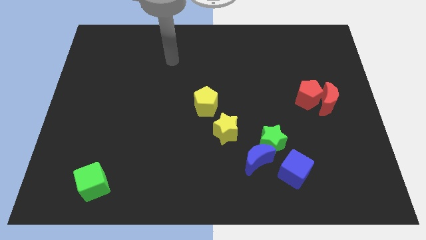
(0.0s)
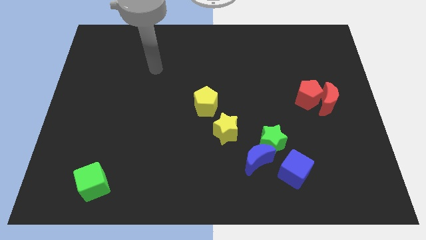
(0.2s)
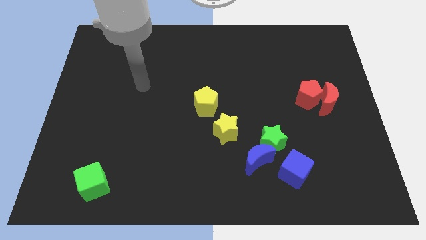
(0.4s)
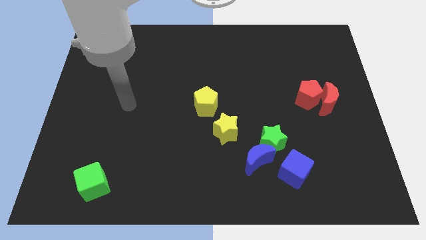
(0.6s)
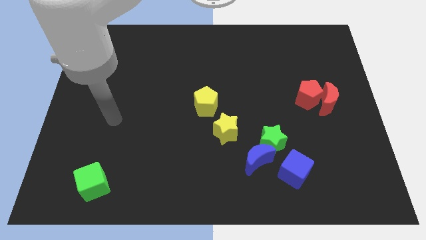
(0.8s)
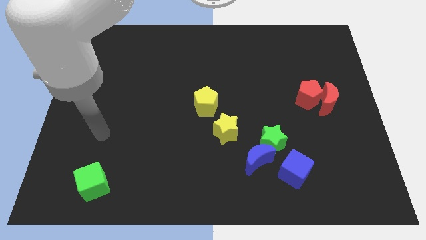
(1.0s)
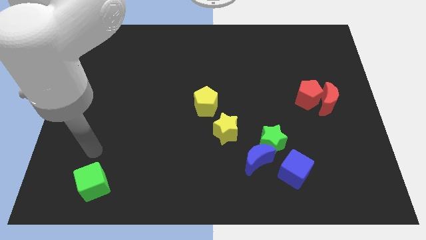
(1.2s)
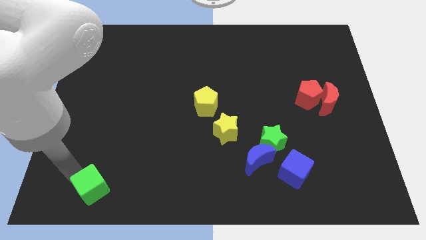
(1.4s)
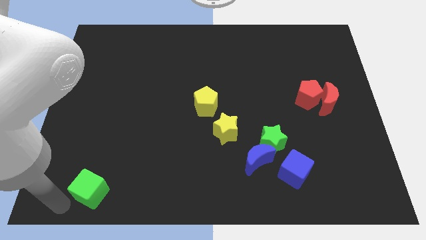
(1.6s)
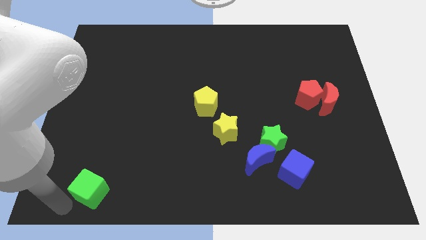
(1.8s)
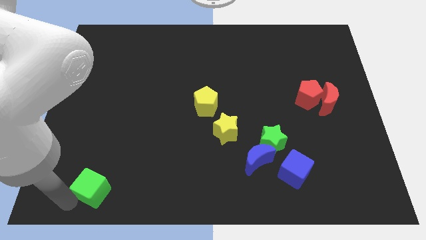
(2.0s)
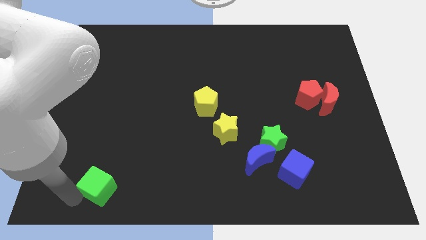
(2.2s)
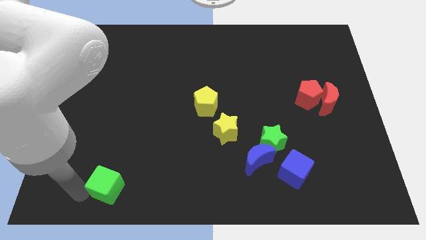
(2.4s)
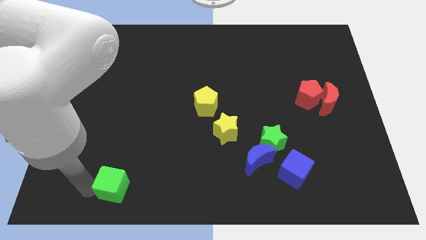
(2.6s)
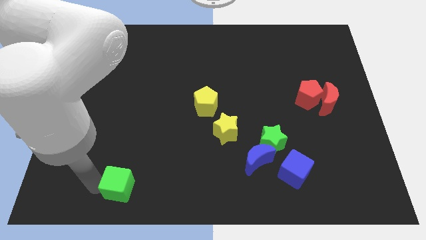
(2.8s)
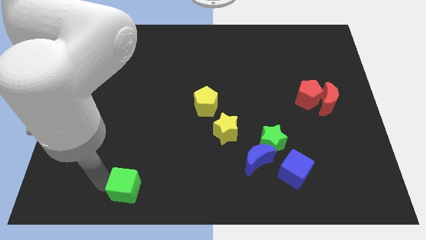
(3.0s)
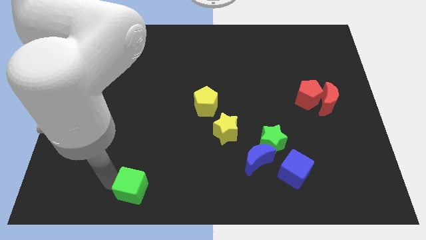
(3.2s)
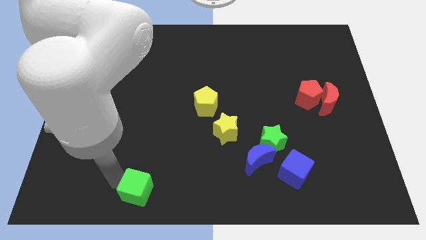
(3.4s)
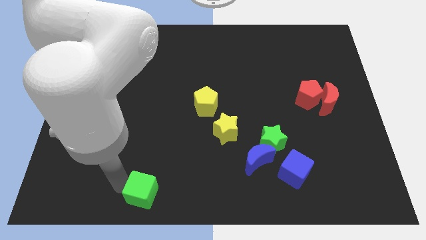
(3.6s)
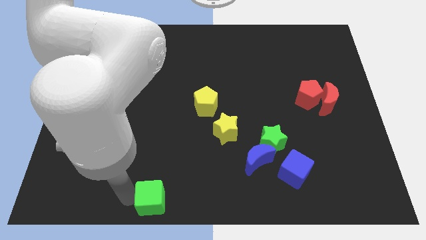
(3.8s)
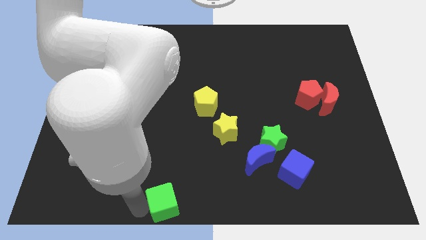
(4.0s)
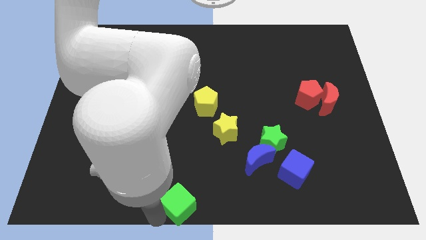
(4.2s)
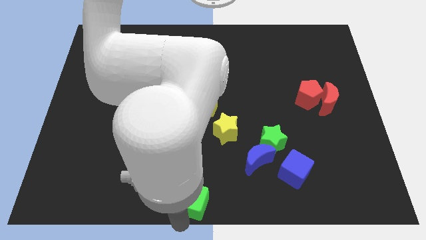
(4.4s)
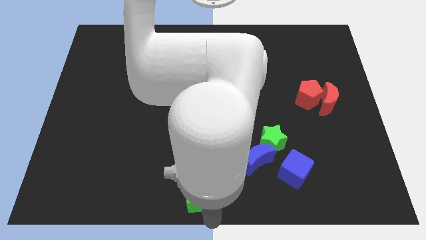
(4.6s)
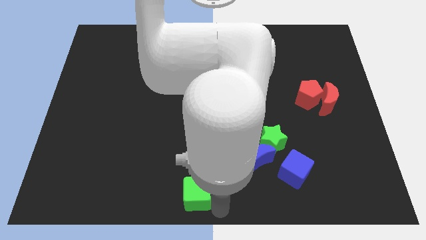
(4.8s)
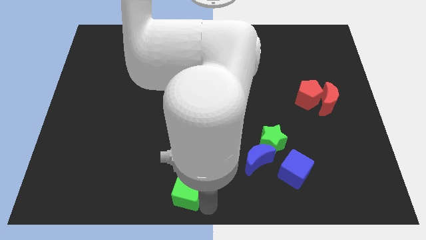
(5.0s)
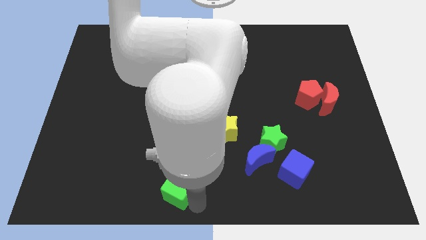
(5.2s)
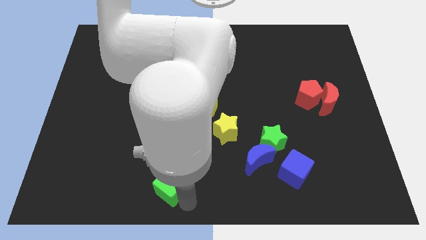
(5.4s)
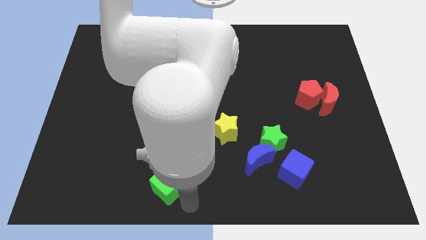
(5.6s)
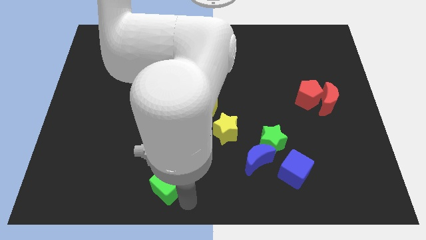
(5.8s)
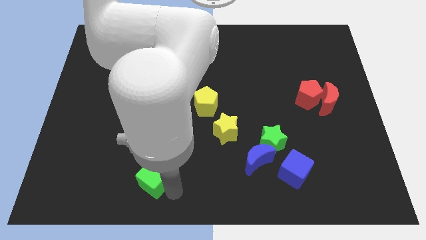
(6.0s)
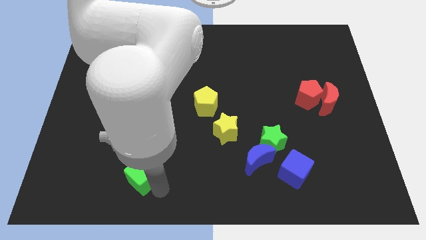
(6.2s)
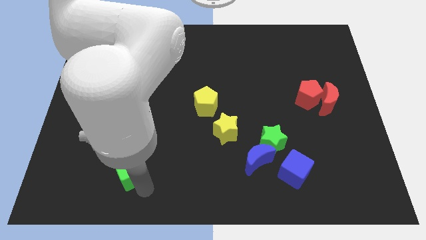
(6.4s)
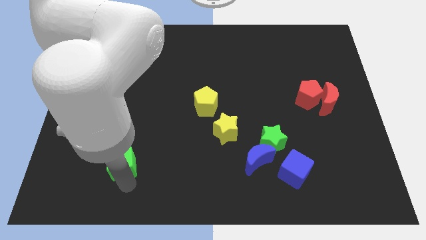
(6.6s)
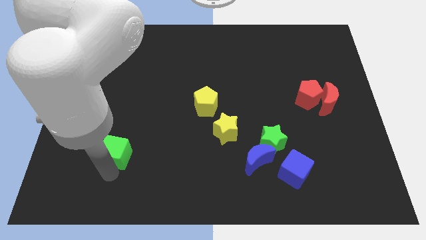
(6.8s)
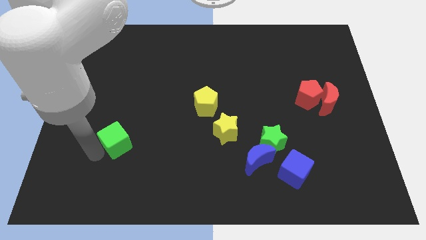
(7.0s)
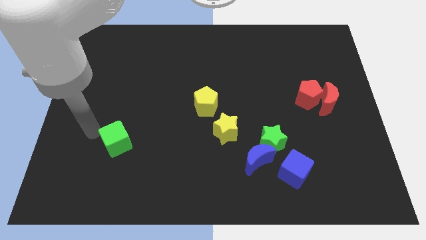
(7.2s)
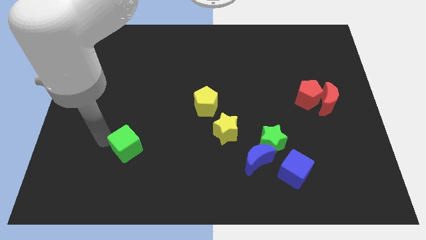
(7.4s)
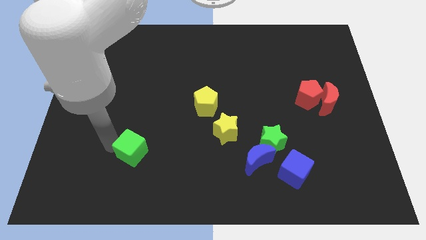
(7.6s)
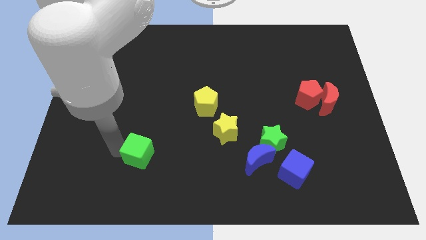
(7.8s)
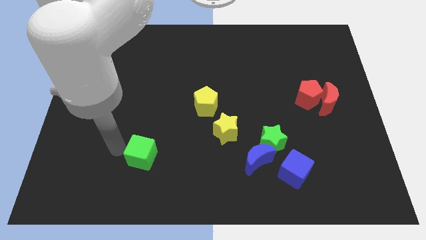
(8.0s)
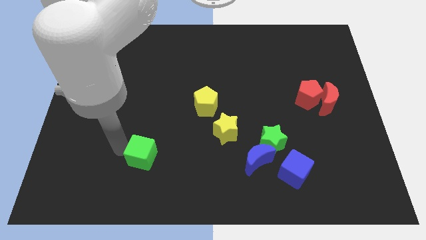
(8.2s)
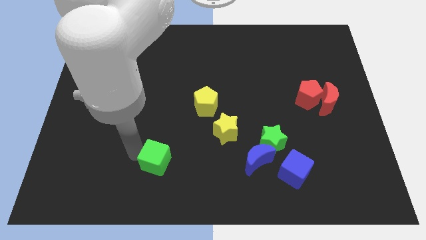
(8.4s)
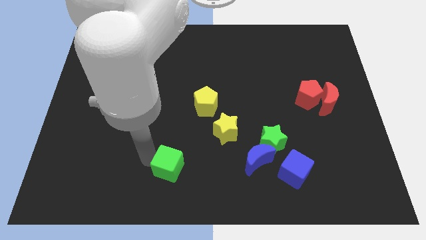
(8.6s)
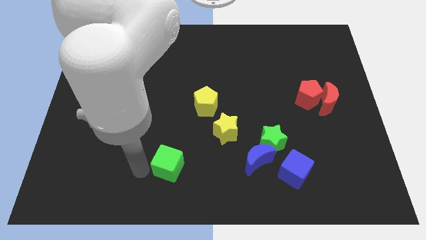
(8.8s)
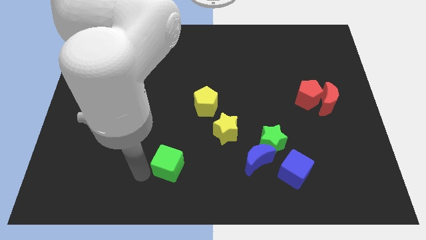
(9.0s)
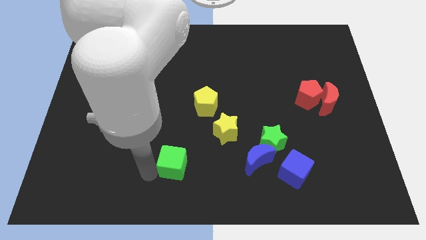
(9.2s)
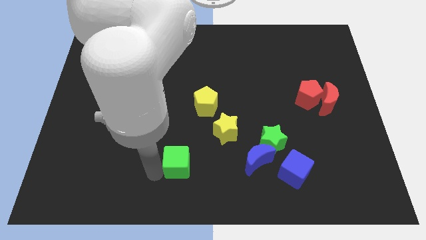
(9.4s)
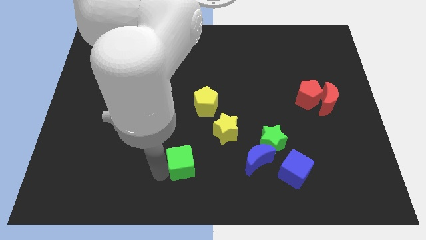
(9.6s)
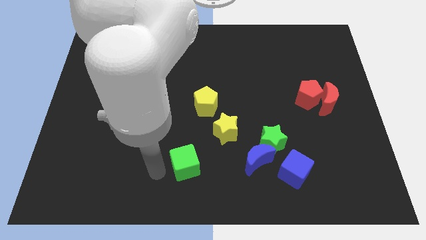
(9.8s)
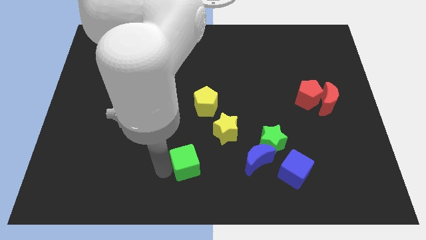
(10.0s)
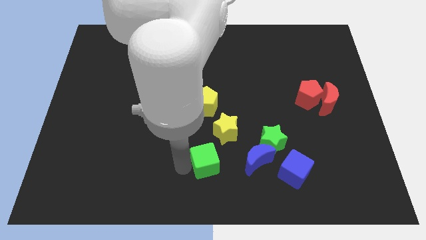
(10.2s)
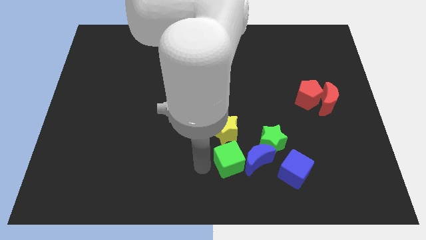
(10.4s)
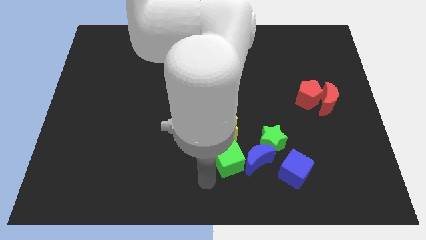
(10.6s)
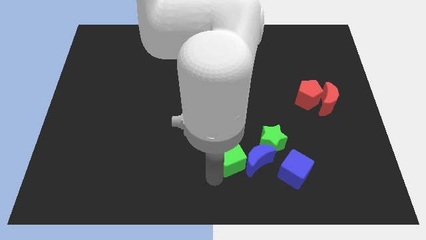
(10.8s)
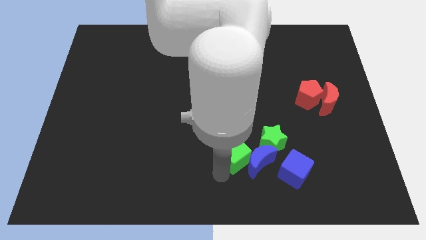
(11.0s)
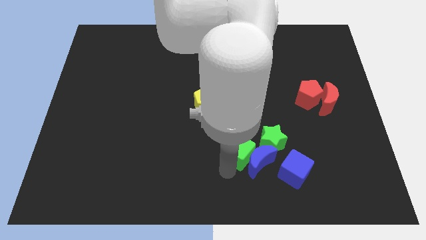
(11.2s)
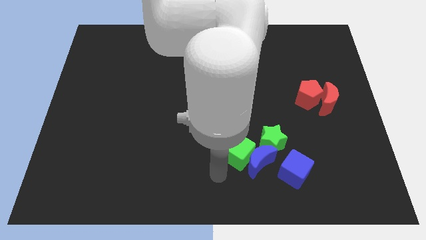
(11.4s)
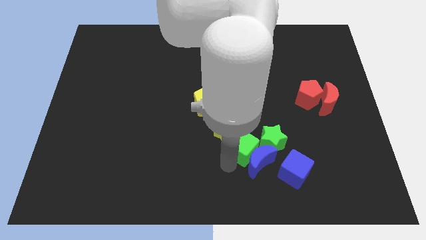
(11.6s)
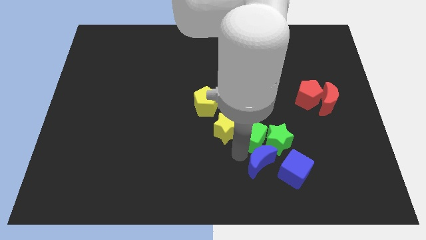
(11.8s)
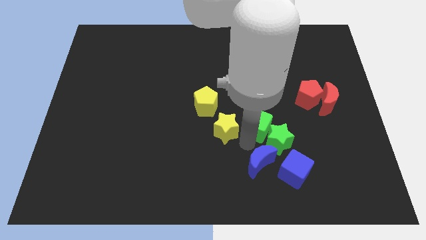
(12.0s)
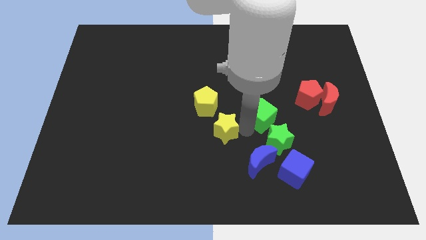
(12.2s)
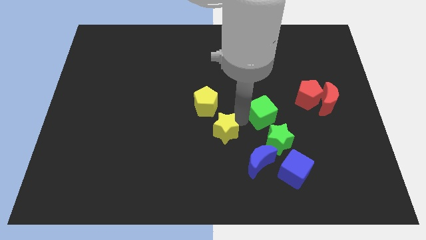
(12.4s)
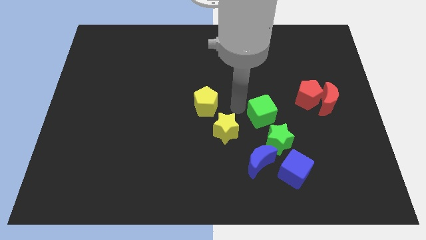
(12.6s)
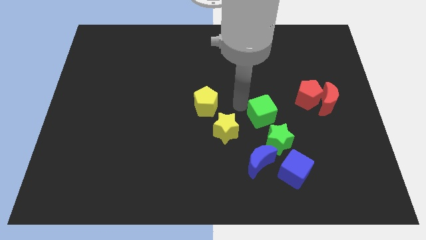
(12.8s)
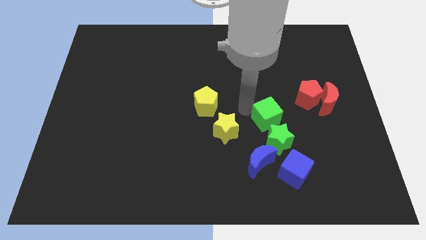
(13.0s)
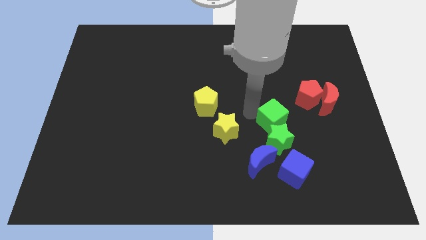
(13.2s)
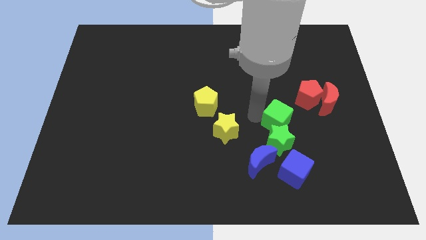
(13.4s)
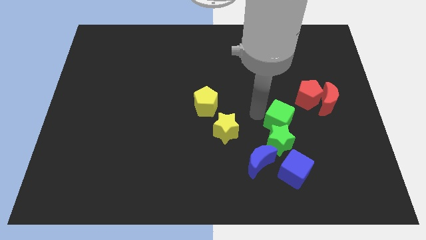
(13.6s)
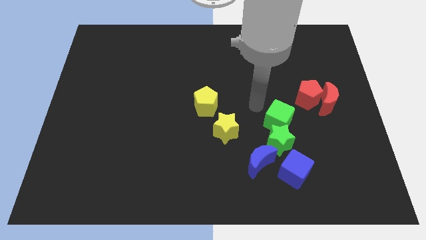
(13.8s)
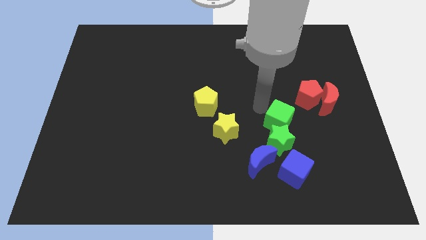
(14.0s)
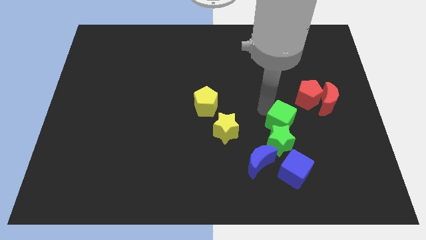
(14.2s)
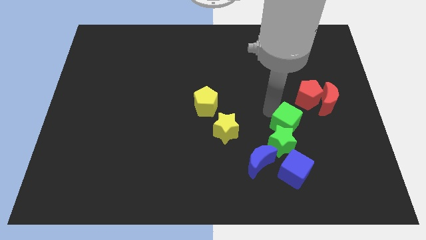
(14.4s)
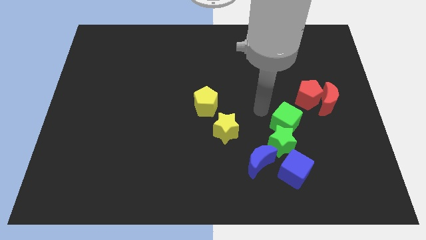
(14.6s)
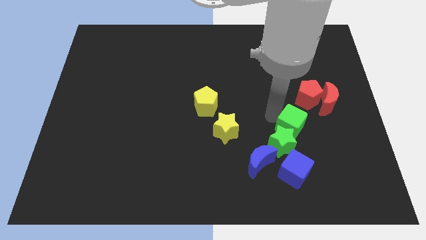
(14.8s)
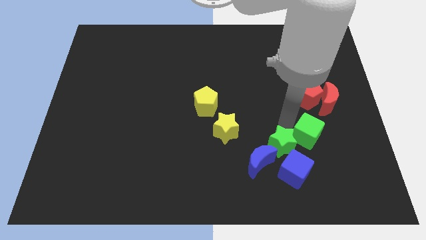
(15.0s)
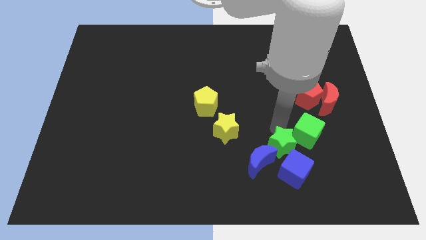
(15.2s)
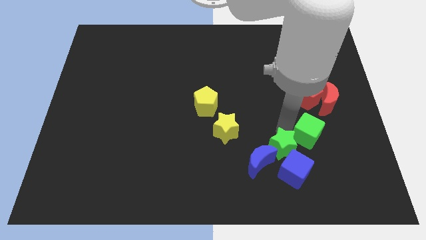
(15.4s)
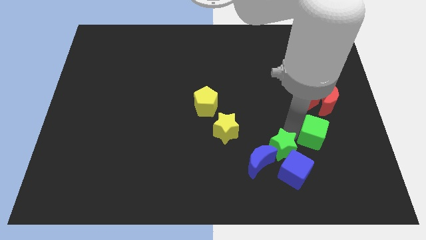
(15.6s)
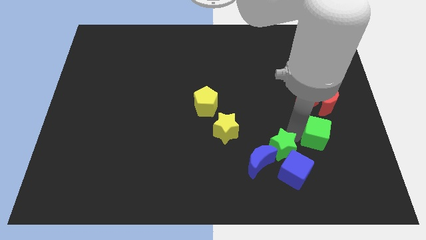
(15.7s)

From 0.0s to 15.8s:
put the green cube below the red moon
